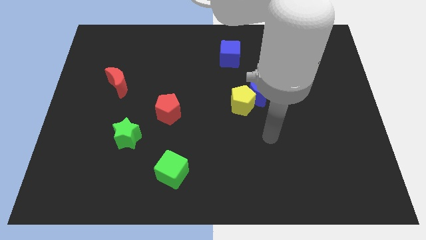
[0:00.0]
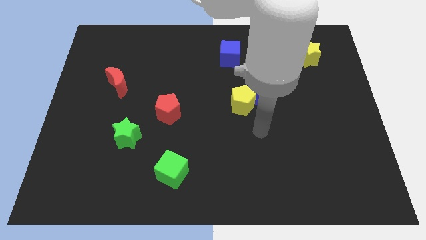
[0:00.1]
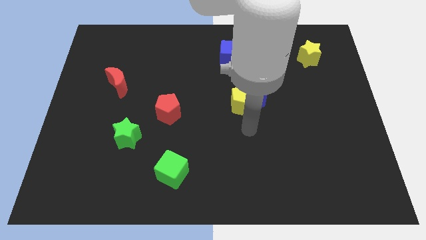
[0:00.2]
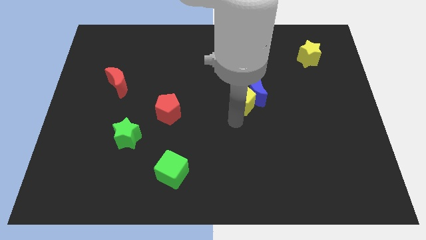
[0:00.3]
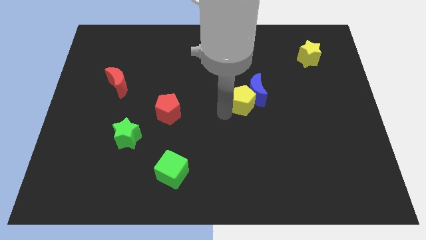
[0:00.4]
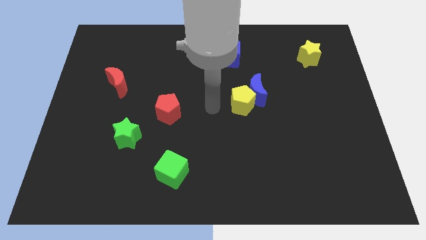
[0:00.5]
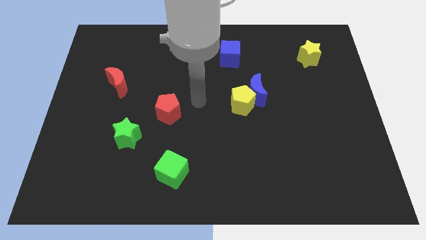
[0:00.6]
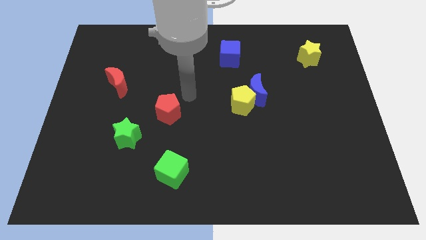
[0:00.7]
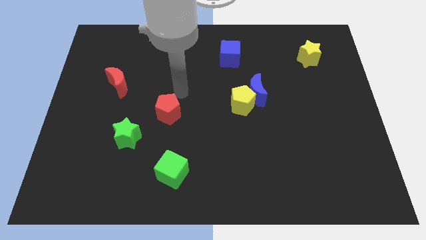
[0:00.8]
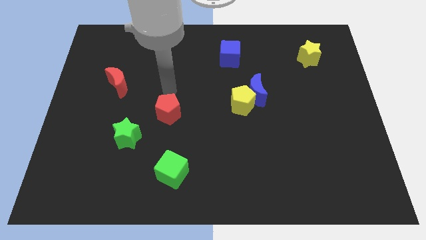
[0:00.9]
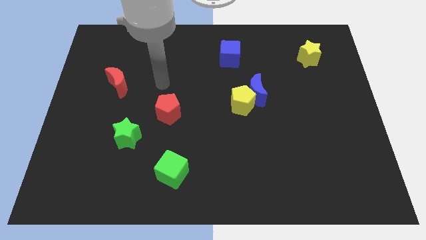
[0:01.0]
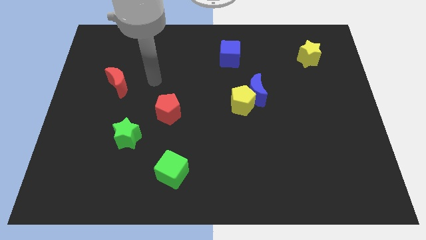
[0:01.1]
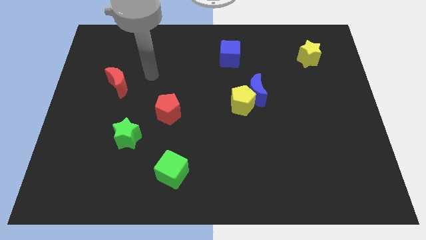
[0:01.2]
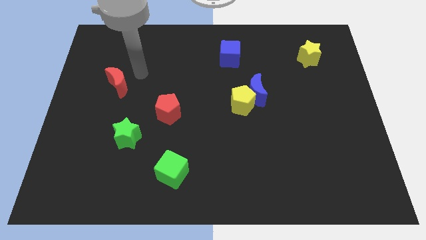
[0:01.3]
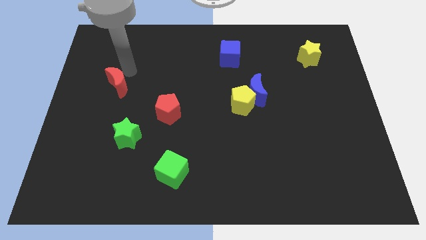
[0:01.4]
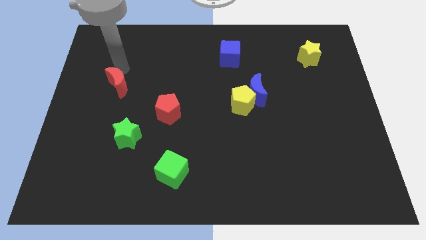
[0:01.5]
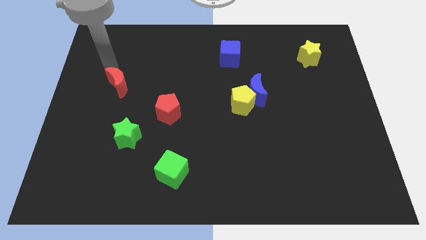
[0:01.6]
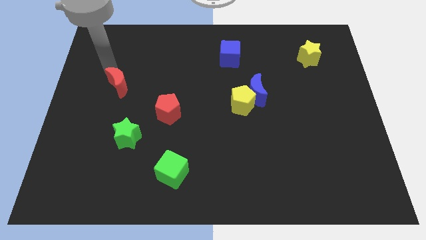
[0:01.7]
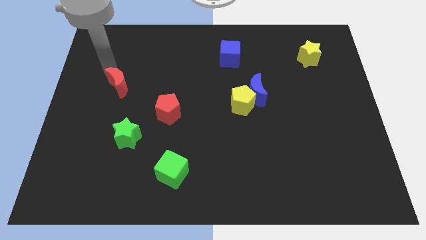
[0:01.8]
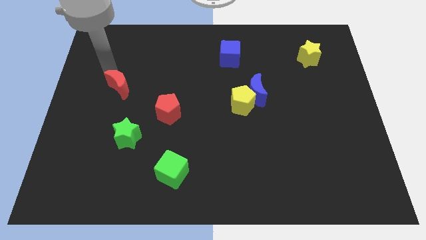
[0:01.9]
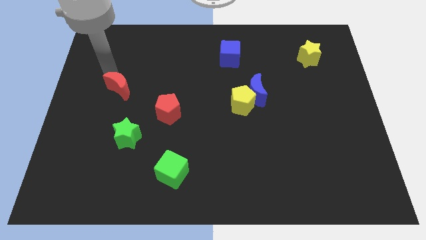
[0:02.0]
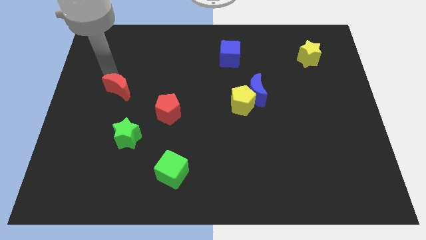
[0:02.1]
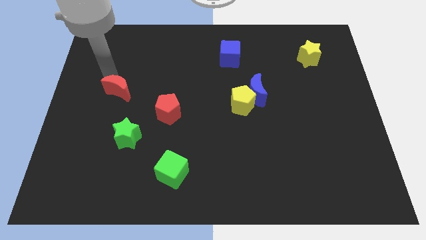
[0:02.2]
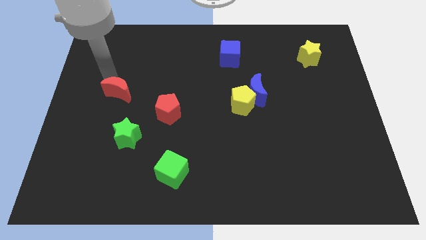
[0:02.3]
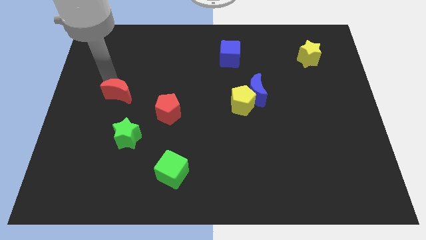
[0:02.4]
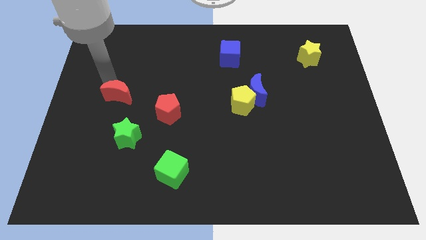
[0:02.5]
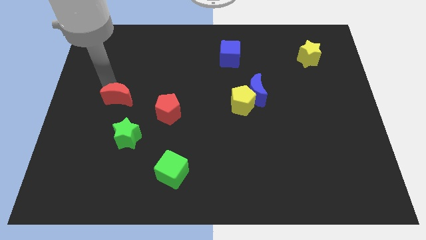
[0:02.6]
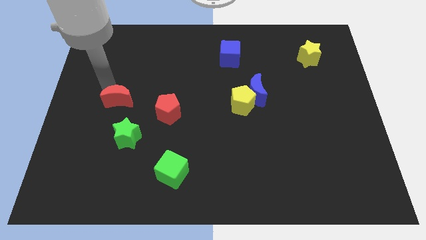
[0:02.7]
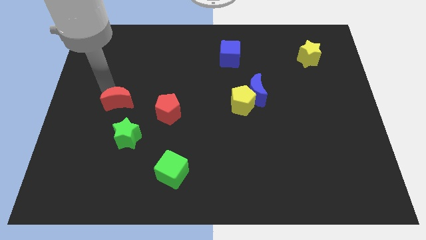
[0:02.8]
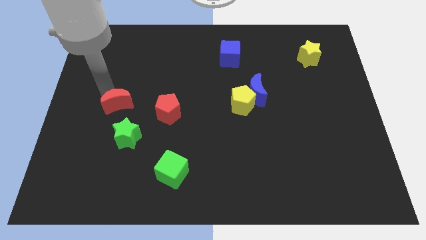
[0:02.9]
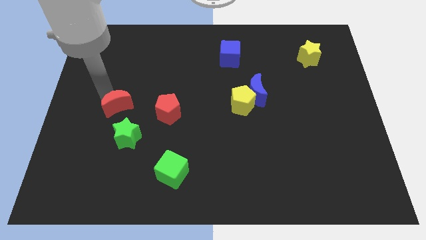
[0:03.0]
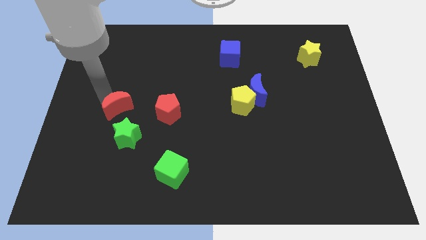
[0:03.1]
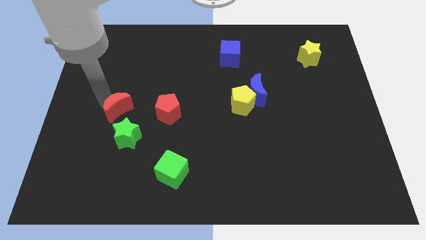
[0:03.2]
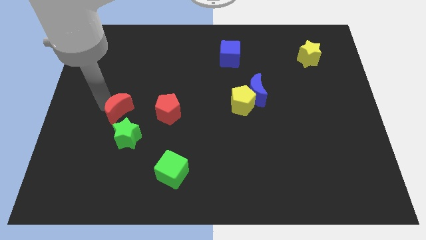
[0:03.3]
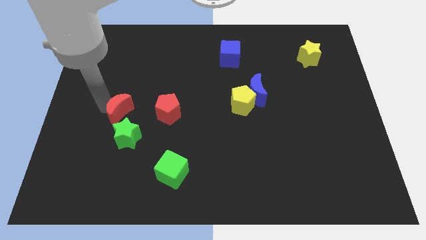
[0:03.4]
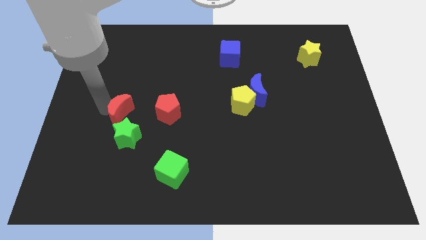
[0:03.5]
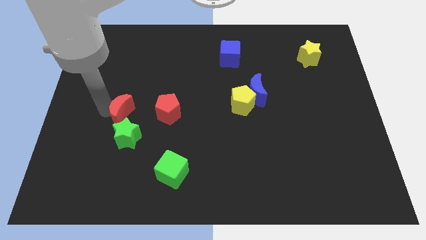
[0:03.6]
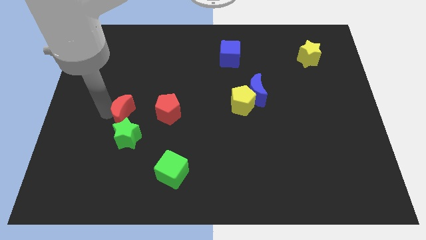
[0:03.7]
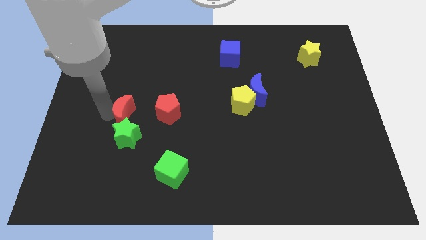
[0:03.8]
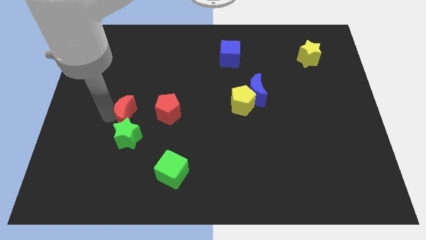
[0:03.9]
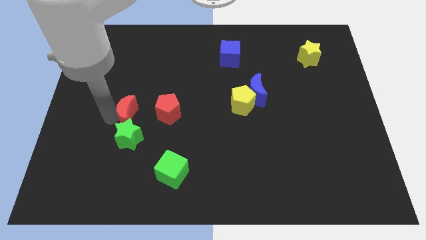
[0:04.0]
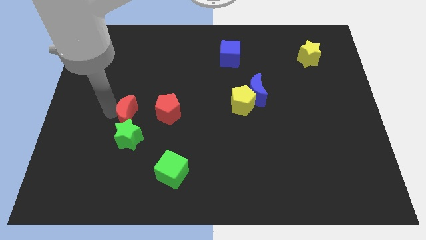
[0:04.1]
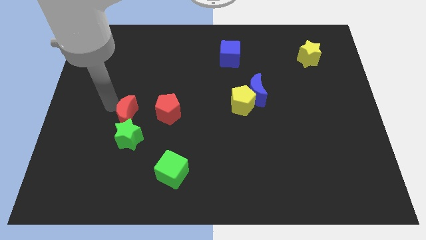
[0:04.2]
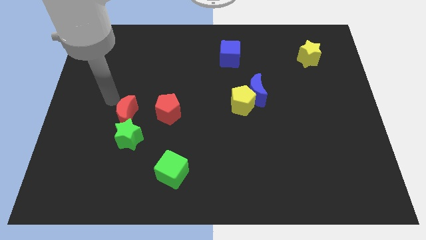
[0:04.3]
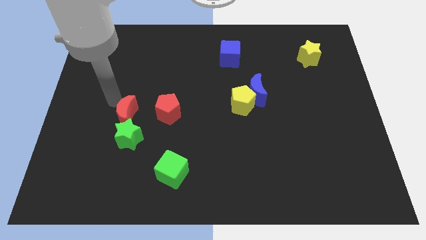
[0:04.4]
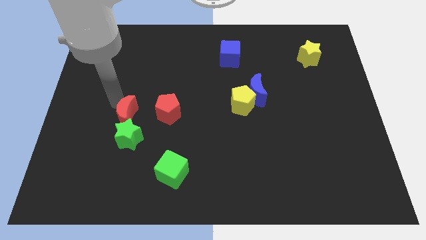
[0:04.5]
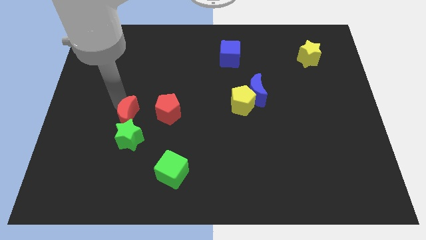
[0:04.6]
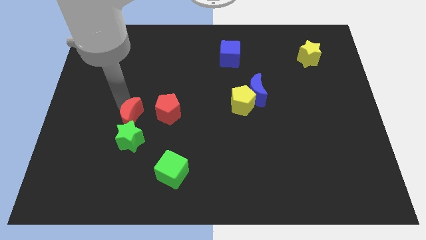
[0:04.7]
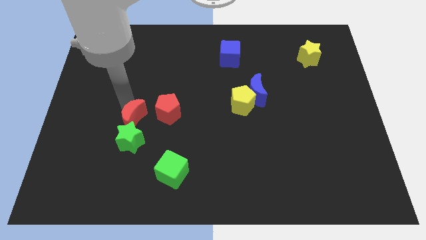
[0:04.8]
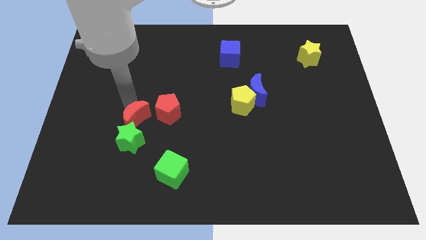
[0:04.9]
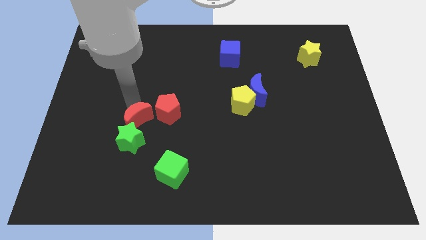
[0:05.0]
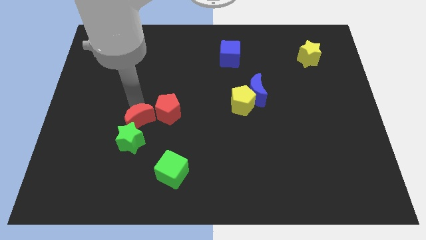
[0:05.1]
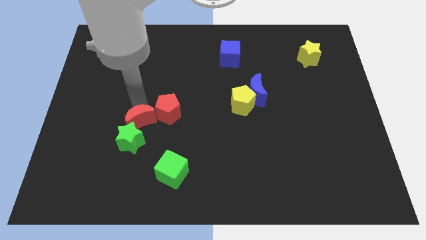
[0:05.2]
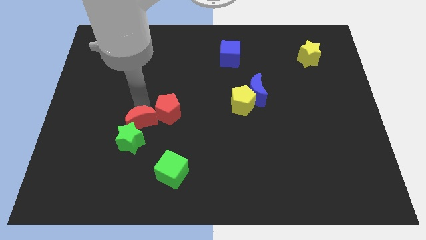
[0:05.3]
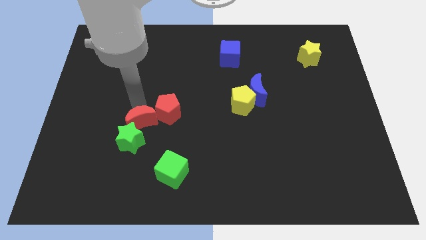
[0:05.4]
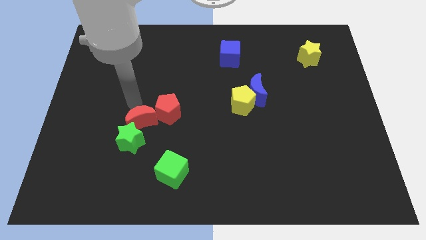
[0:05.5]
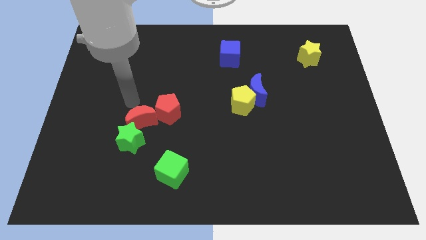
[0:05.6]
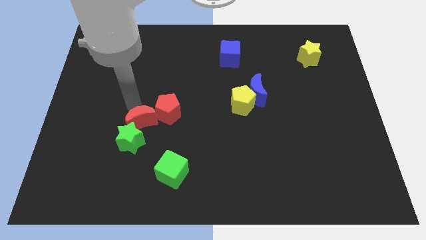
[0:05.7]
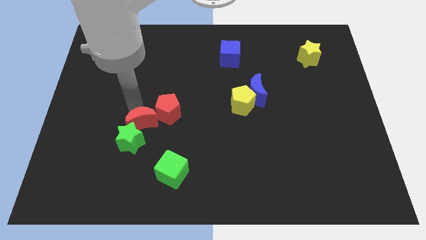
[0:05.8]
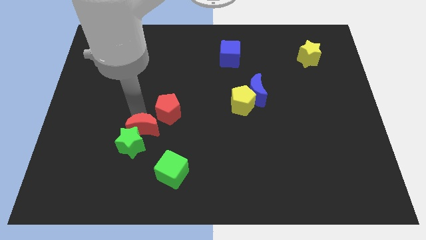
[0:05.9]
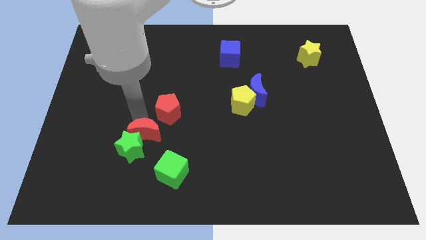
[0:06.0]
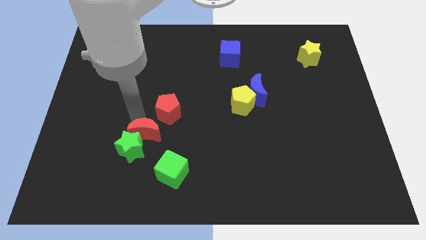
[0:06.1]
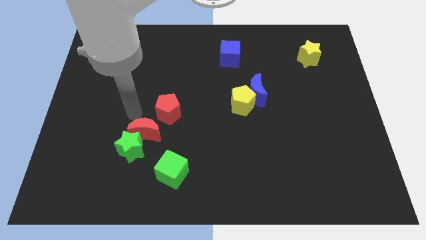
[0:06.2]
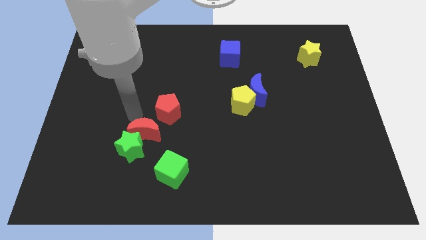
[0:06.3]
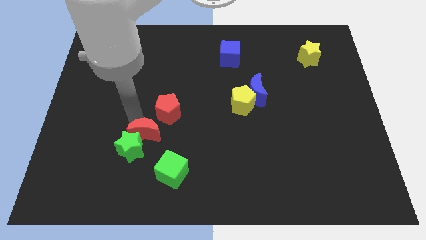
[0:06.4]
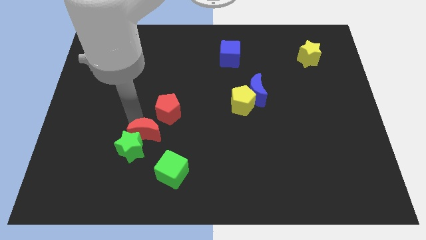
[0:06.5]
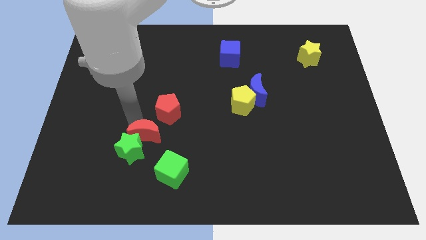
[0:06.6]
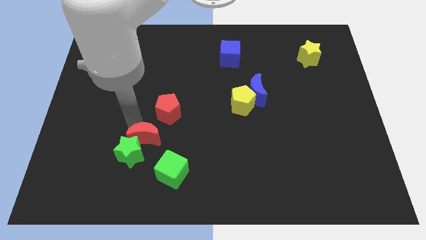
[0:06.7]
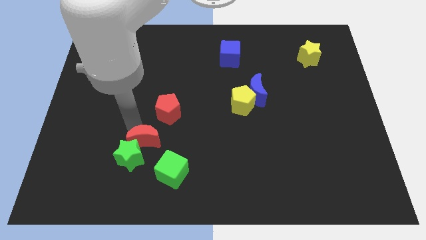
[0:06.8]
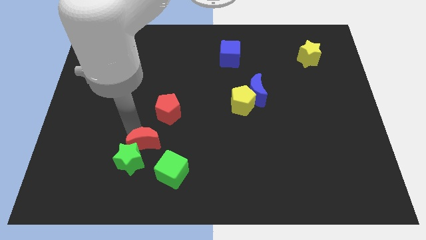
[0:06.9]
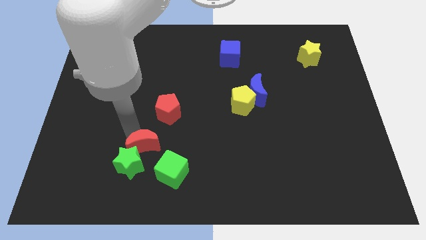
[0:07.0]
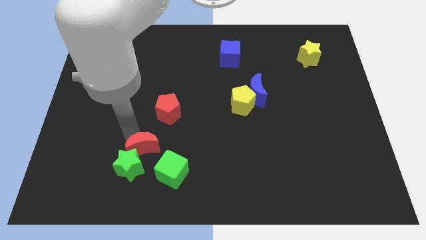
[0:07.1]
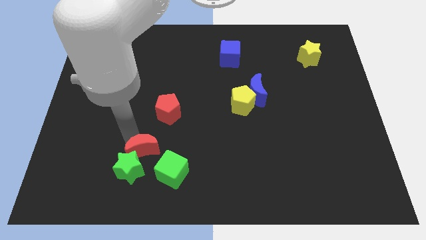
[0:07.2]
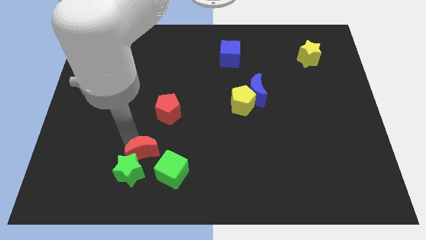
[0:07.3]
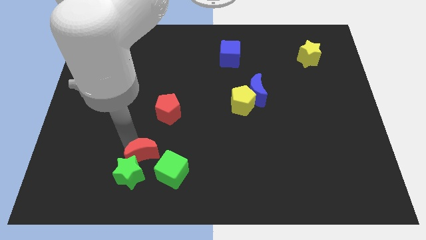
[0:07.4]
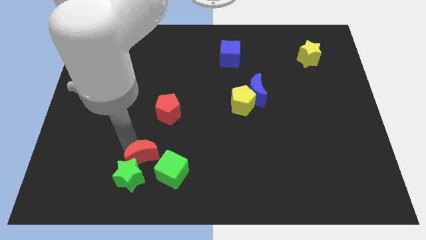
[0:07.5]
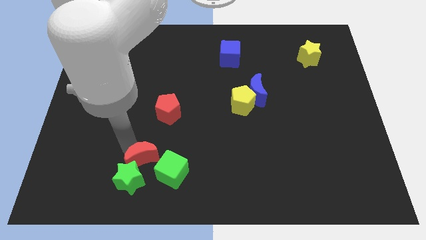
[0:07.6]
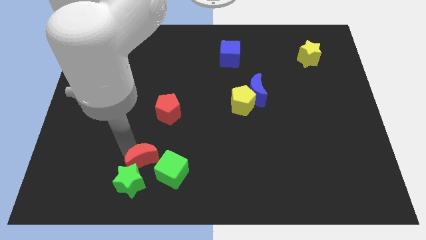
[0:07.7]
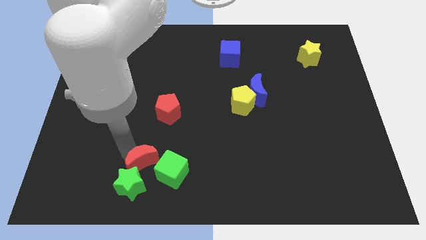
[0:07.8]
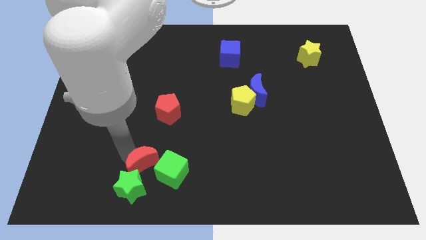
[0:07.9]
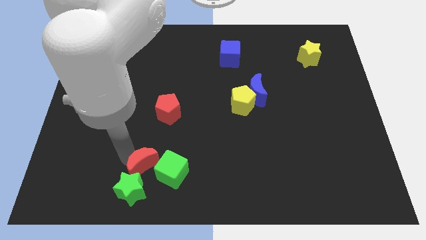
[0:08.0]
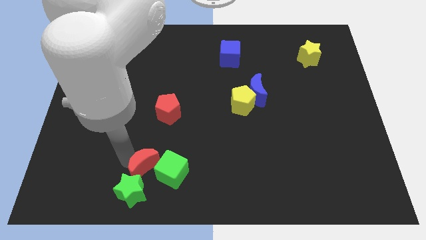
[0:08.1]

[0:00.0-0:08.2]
put the red moon towards the green cube
